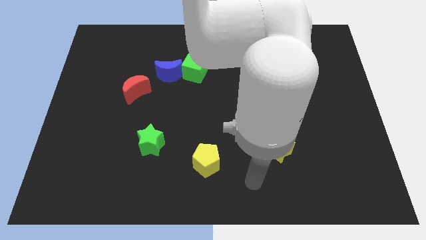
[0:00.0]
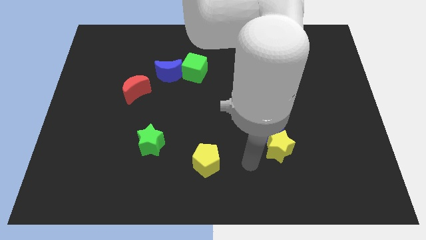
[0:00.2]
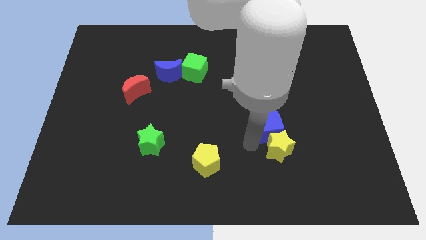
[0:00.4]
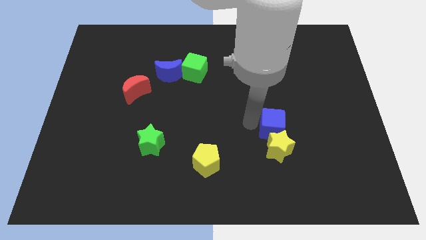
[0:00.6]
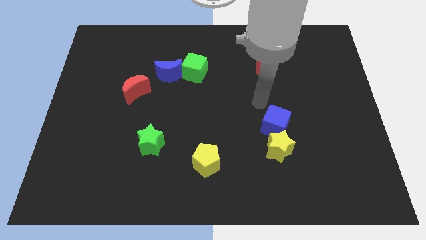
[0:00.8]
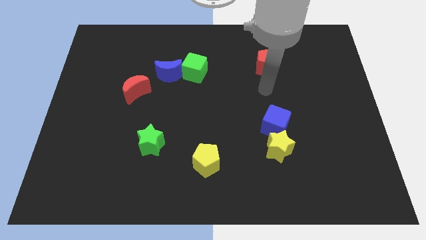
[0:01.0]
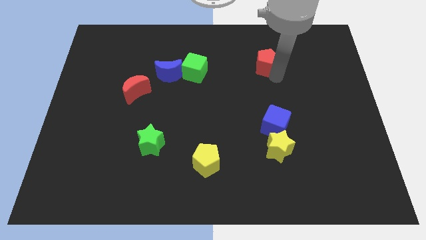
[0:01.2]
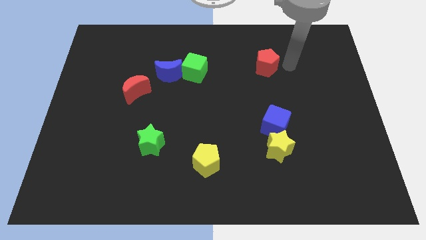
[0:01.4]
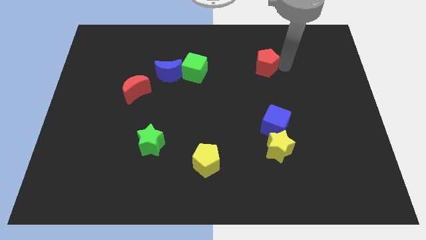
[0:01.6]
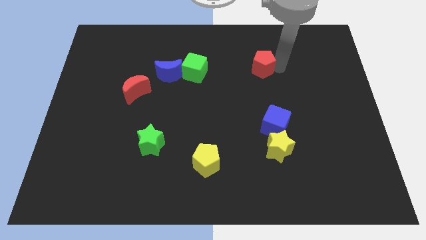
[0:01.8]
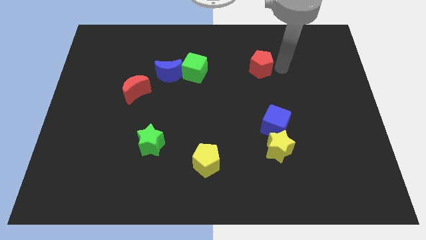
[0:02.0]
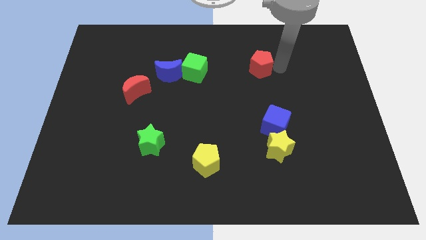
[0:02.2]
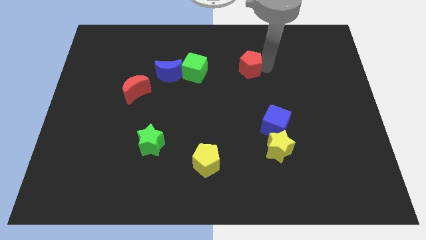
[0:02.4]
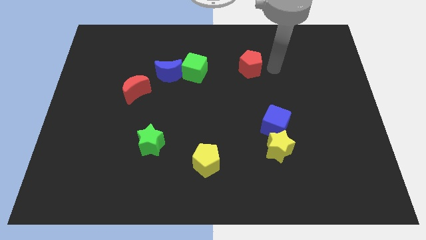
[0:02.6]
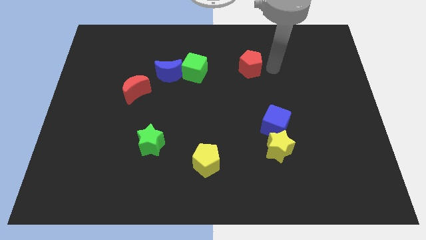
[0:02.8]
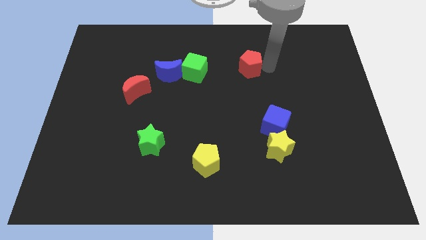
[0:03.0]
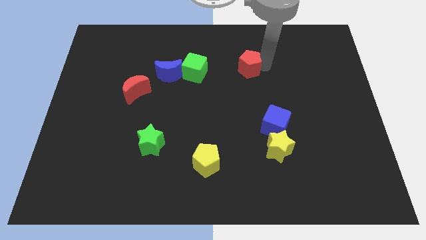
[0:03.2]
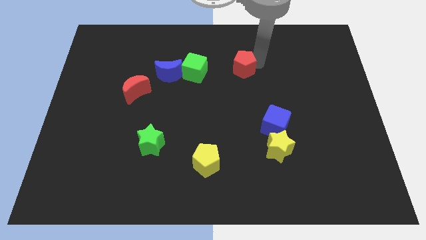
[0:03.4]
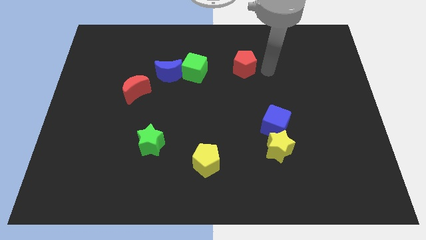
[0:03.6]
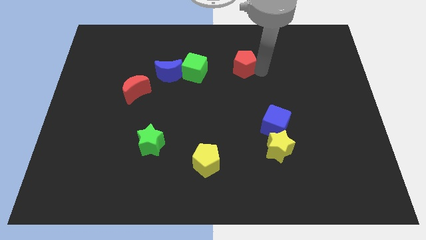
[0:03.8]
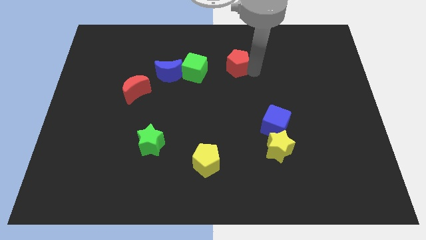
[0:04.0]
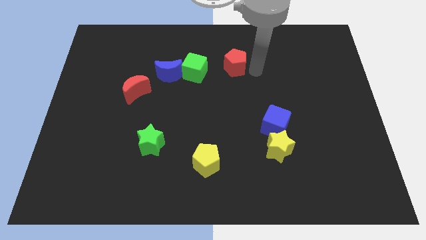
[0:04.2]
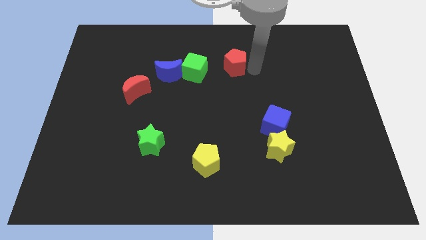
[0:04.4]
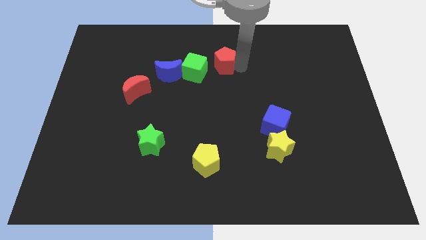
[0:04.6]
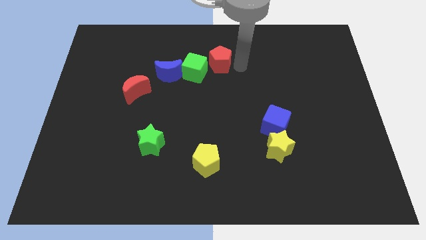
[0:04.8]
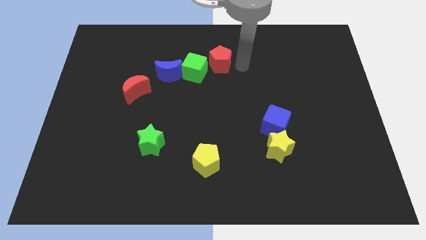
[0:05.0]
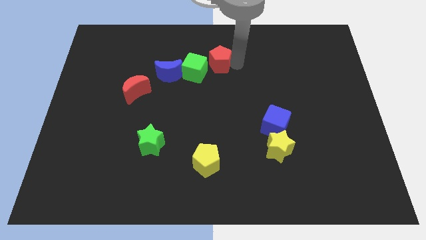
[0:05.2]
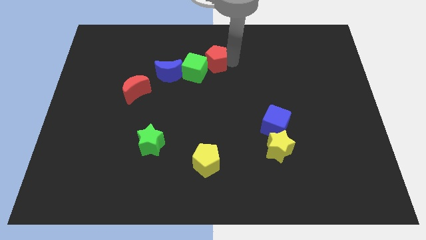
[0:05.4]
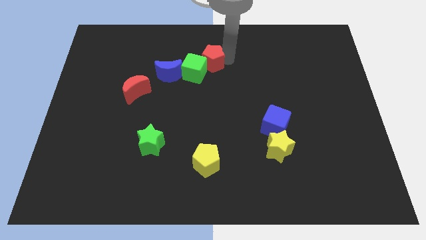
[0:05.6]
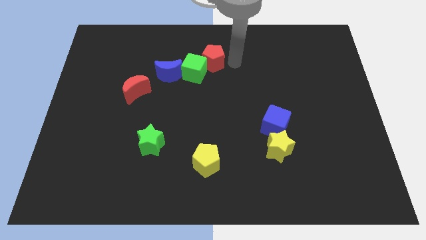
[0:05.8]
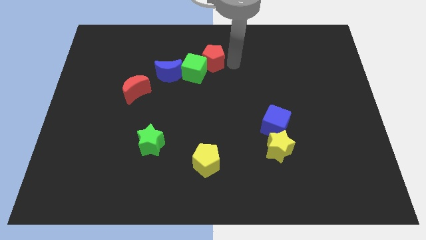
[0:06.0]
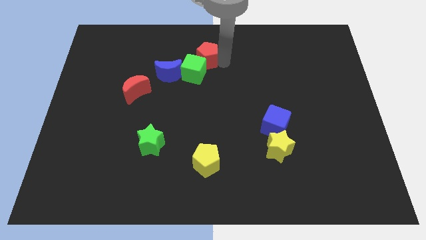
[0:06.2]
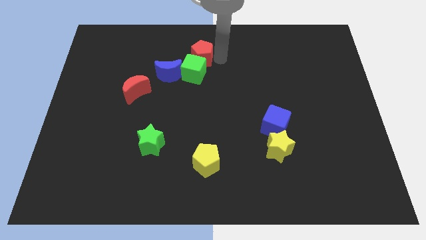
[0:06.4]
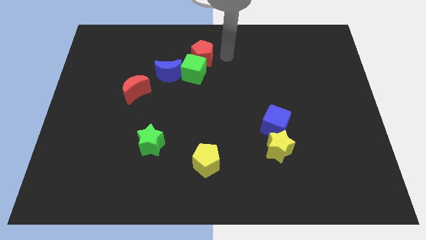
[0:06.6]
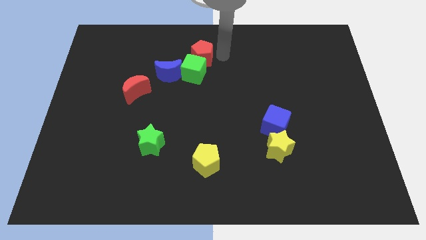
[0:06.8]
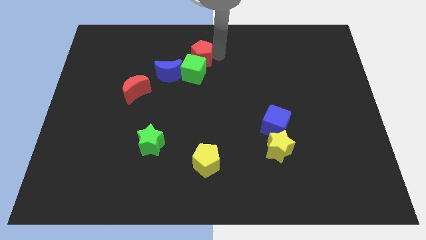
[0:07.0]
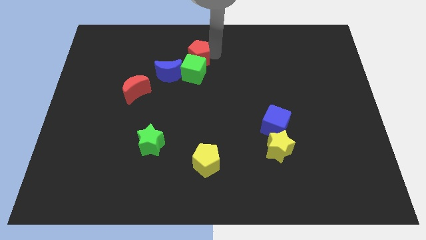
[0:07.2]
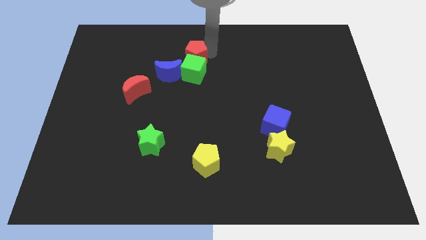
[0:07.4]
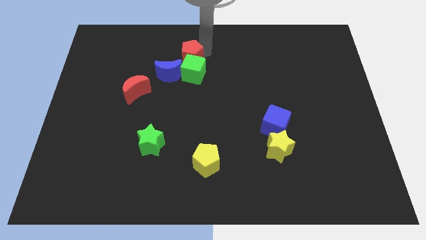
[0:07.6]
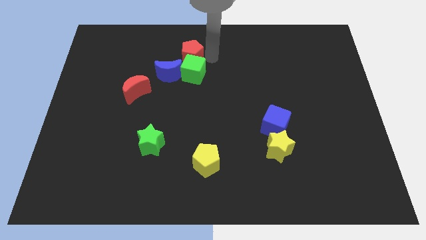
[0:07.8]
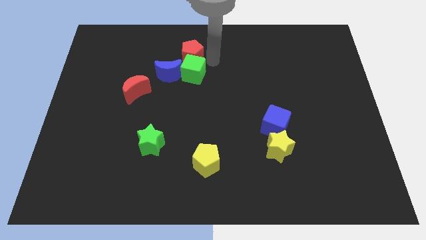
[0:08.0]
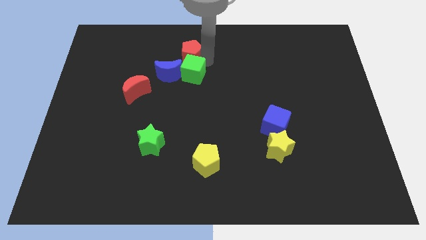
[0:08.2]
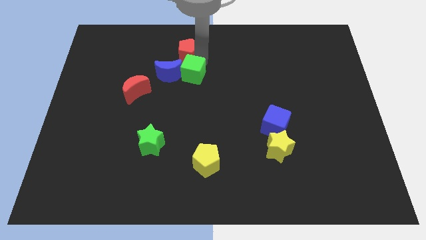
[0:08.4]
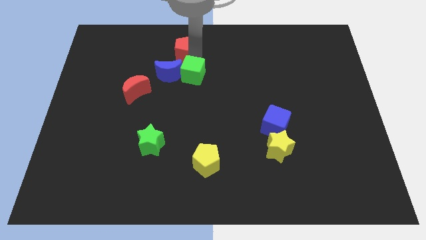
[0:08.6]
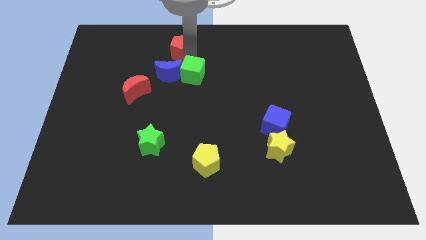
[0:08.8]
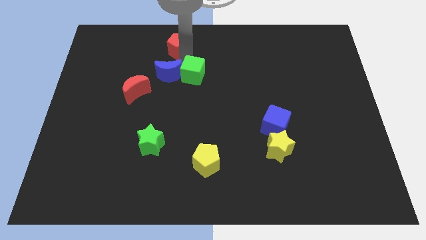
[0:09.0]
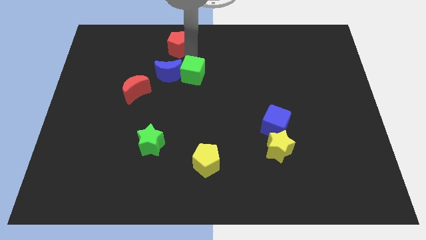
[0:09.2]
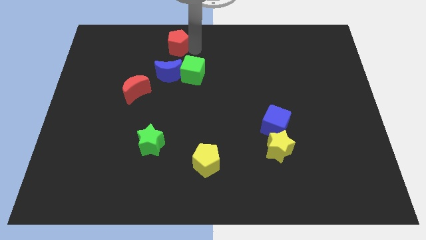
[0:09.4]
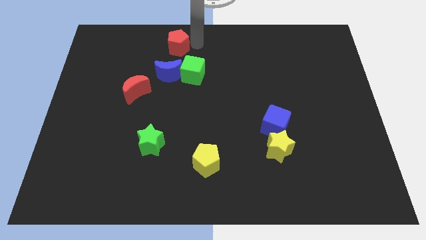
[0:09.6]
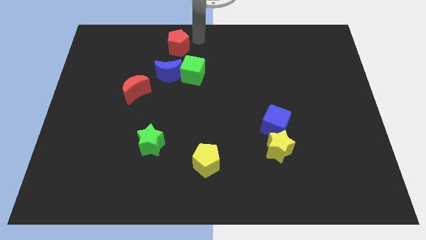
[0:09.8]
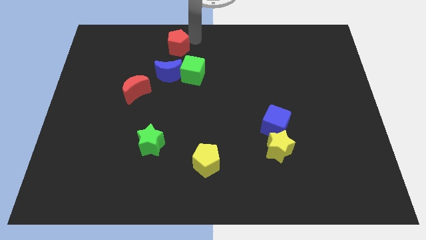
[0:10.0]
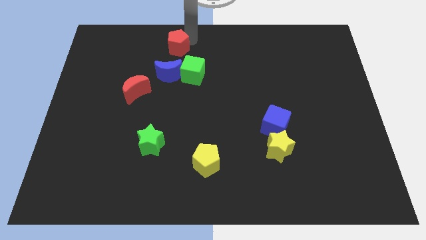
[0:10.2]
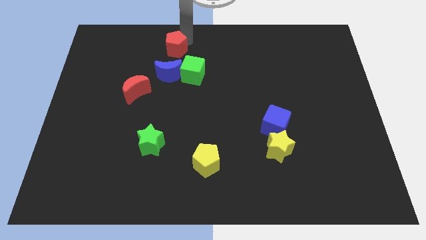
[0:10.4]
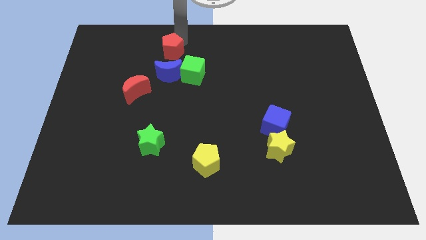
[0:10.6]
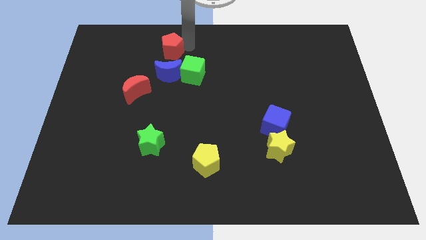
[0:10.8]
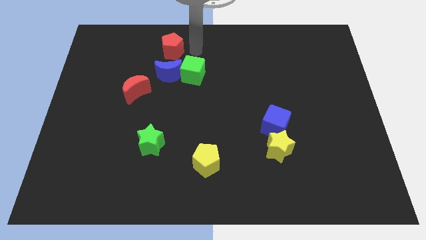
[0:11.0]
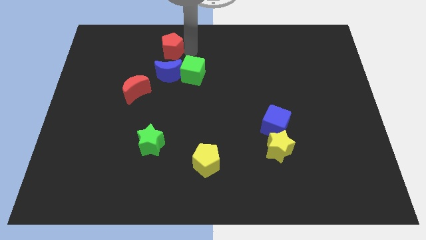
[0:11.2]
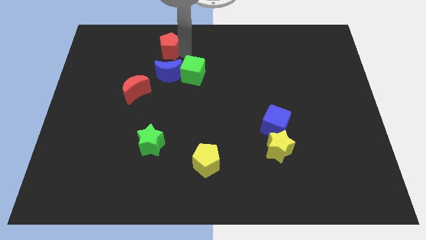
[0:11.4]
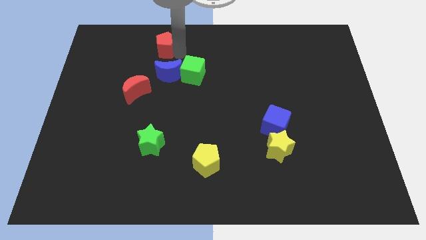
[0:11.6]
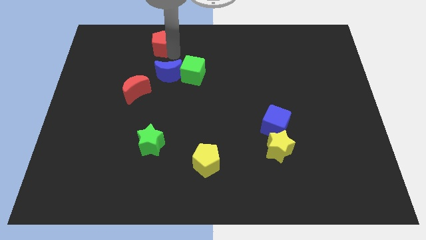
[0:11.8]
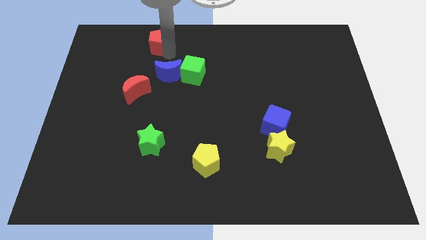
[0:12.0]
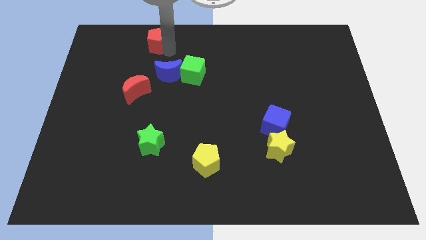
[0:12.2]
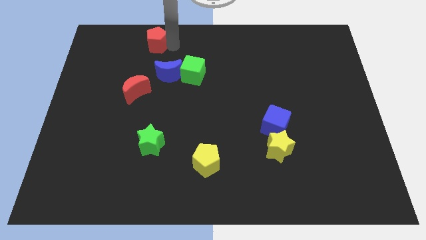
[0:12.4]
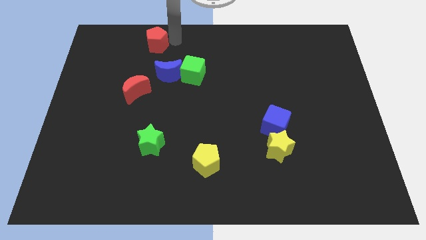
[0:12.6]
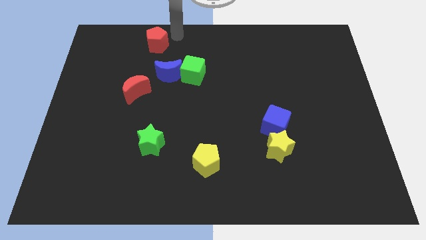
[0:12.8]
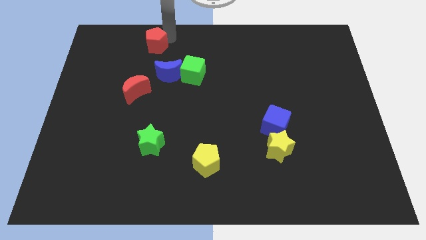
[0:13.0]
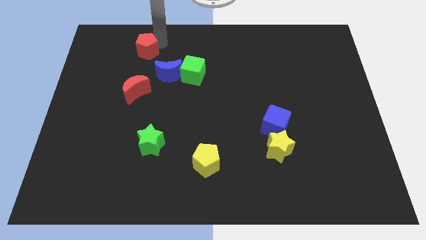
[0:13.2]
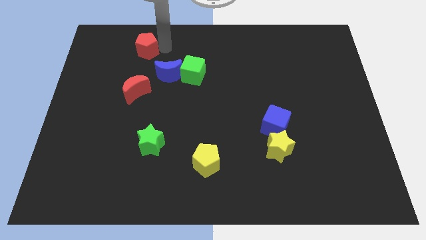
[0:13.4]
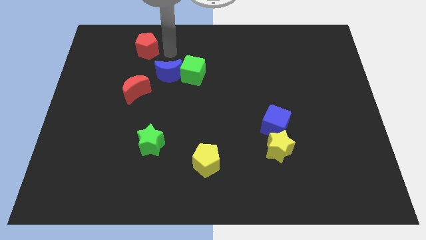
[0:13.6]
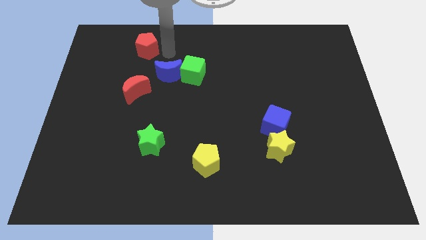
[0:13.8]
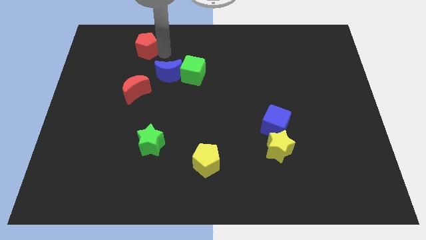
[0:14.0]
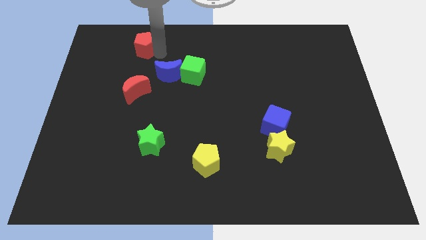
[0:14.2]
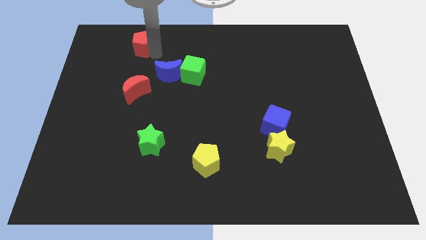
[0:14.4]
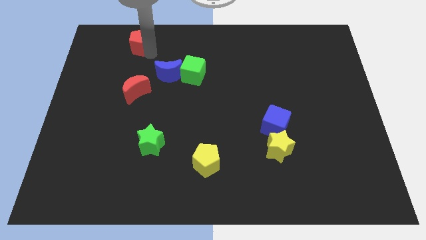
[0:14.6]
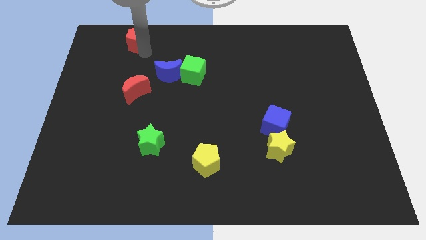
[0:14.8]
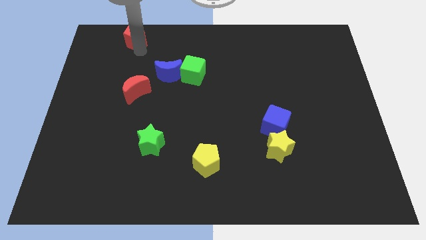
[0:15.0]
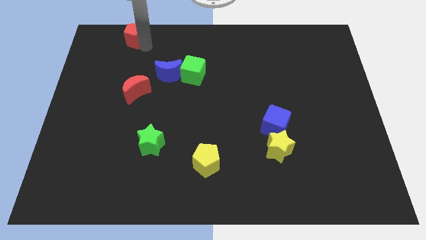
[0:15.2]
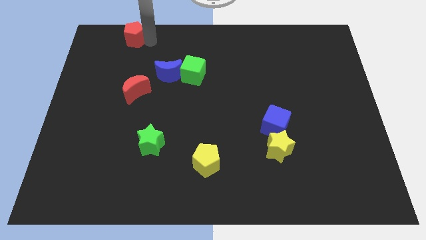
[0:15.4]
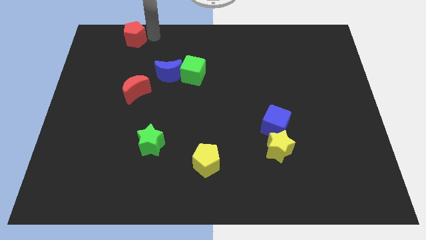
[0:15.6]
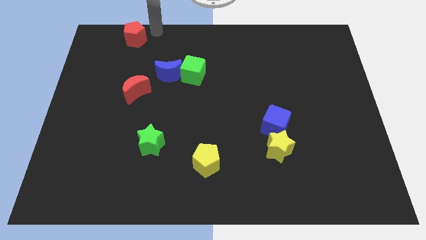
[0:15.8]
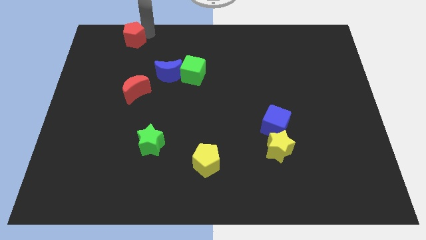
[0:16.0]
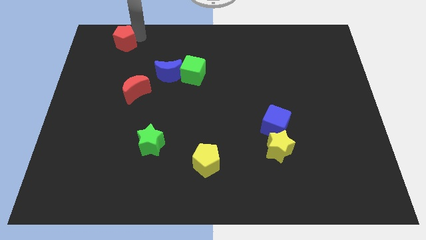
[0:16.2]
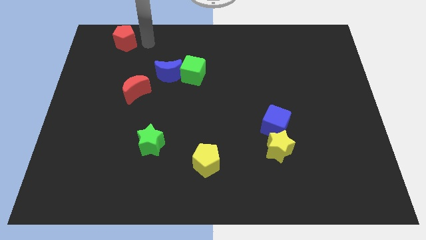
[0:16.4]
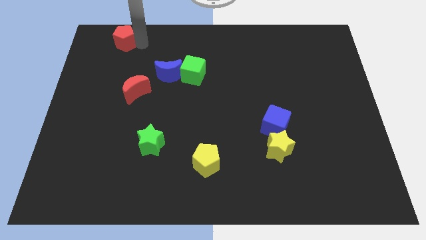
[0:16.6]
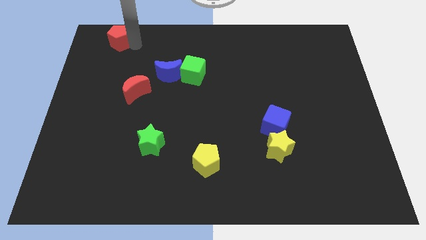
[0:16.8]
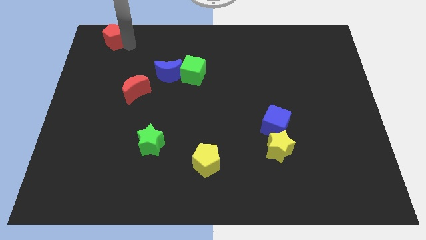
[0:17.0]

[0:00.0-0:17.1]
slide the red pentagon to the top left corner
